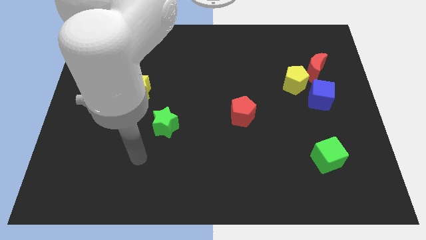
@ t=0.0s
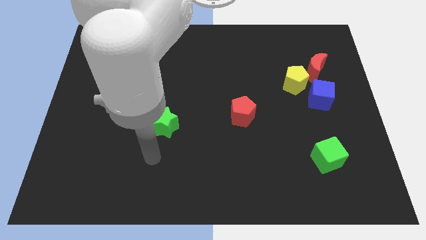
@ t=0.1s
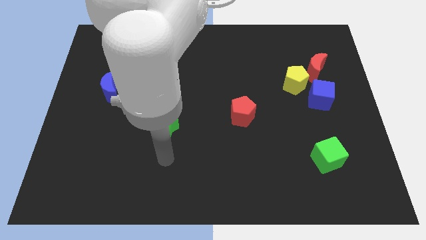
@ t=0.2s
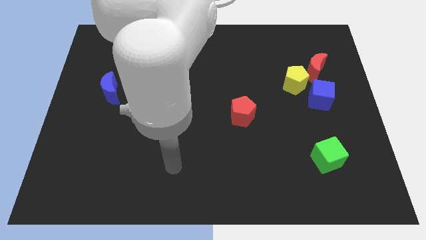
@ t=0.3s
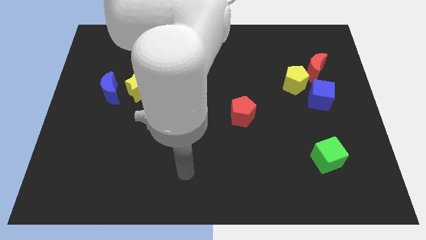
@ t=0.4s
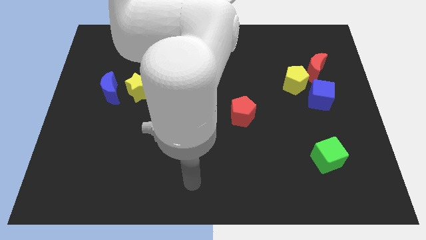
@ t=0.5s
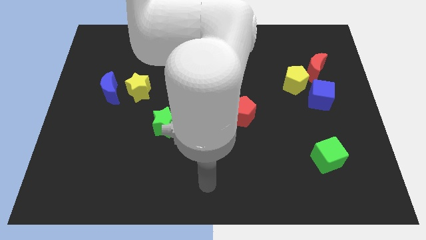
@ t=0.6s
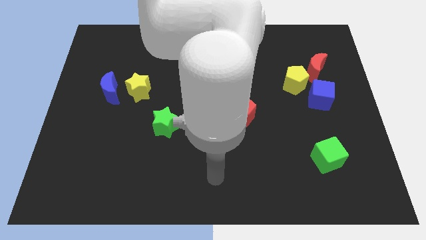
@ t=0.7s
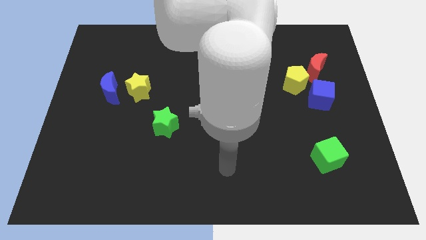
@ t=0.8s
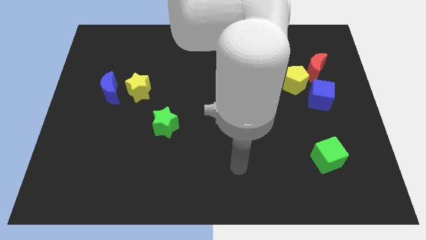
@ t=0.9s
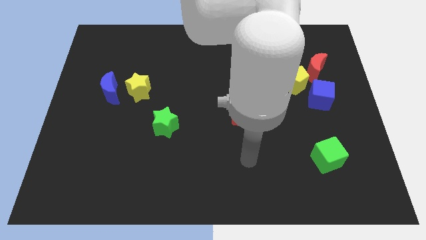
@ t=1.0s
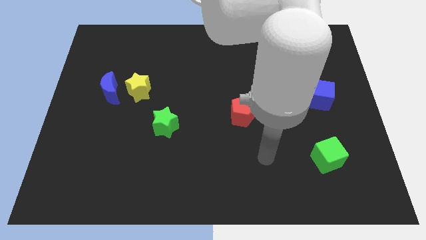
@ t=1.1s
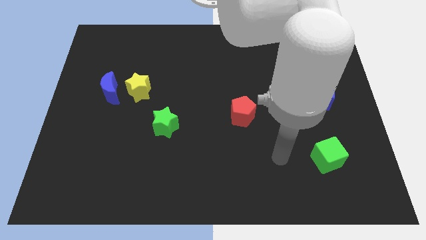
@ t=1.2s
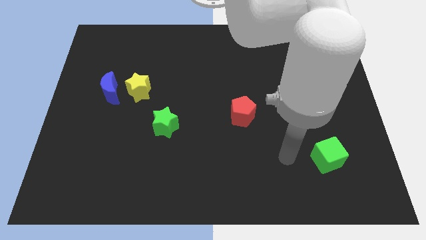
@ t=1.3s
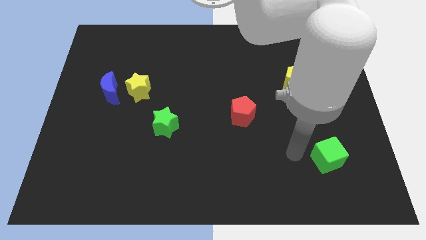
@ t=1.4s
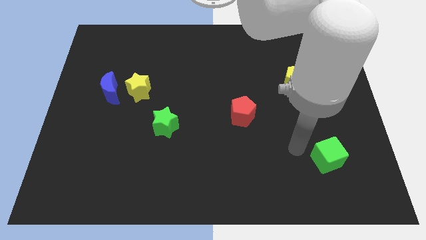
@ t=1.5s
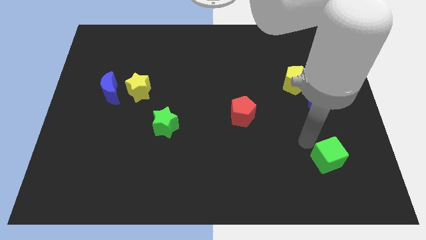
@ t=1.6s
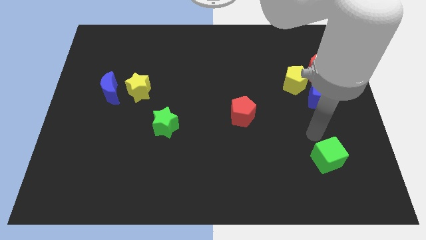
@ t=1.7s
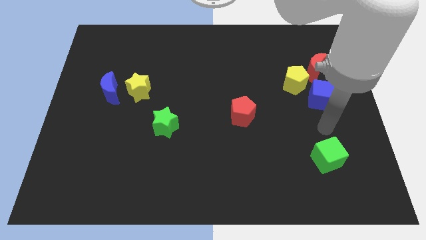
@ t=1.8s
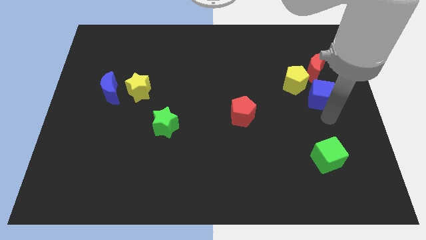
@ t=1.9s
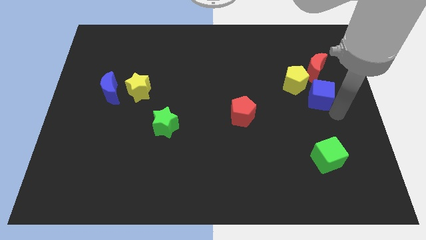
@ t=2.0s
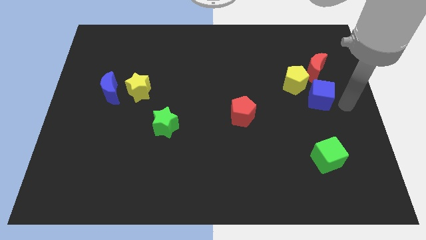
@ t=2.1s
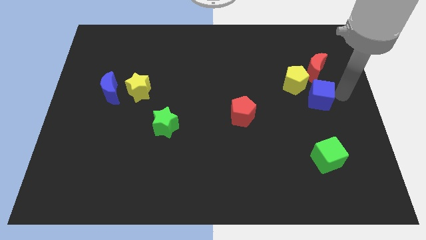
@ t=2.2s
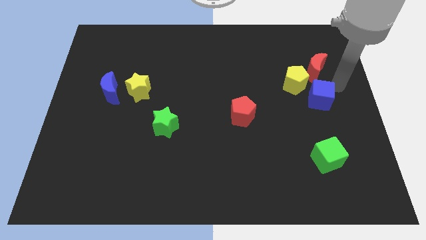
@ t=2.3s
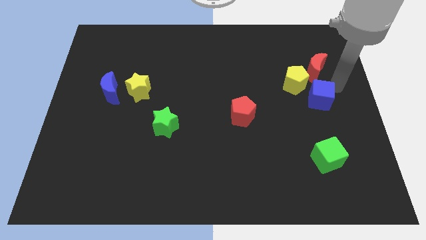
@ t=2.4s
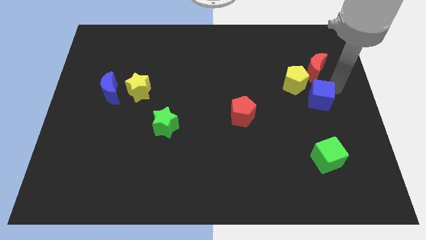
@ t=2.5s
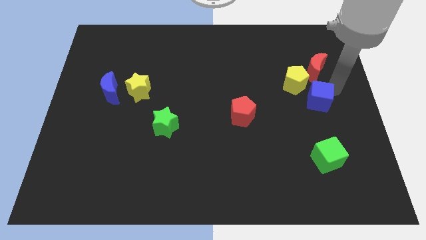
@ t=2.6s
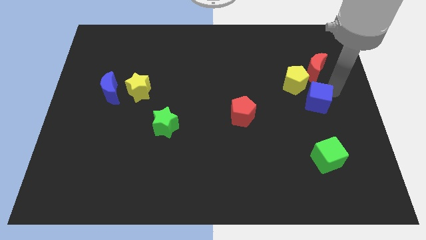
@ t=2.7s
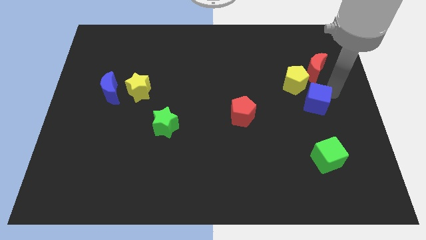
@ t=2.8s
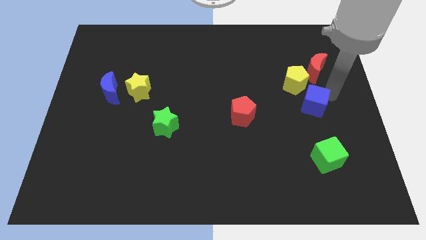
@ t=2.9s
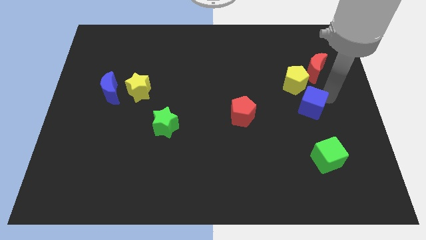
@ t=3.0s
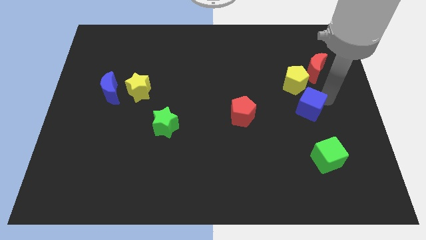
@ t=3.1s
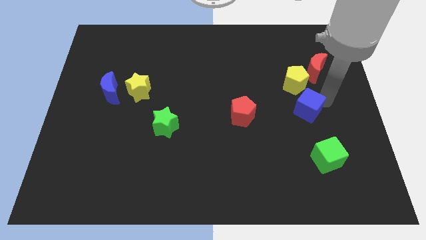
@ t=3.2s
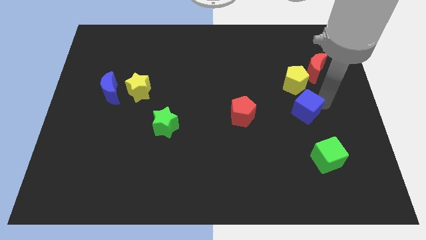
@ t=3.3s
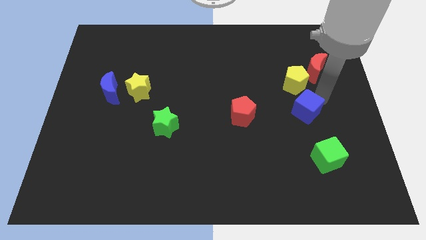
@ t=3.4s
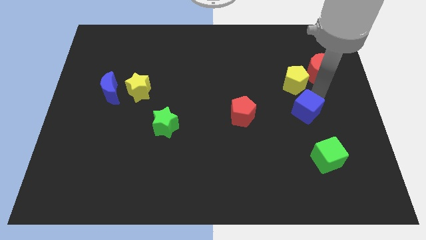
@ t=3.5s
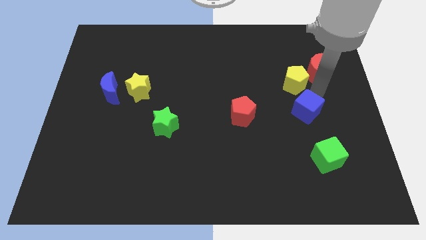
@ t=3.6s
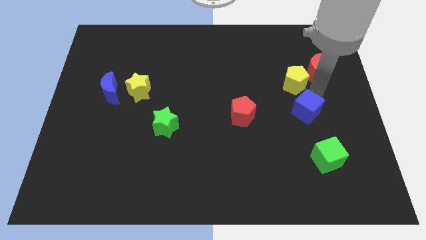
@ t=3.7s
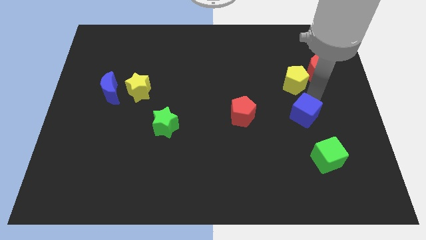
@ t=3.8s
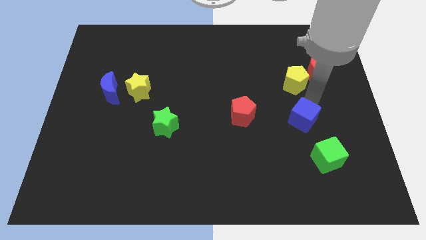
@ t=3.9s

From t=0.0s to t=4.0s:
push the blue cube diagonally downwards and left somewhat

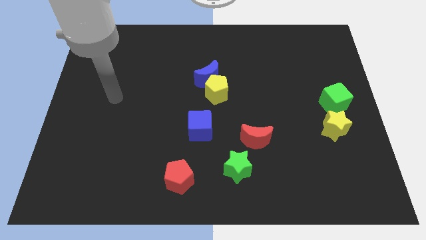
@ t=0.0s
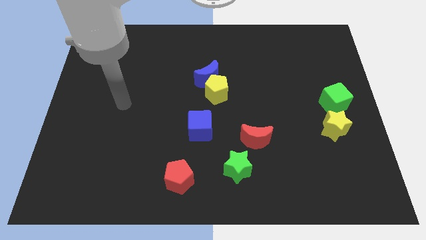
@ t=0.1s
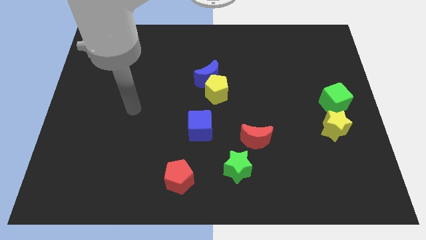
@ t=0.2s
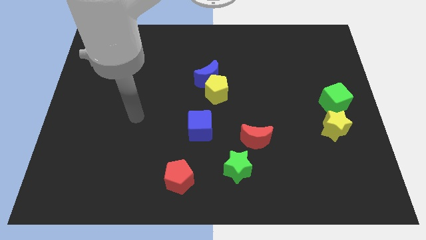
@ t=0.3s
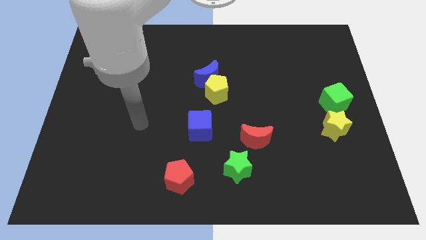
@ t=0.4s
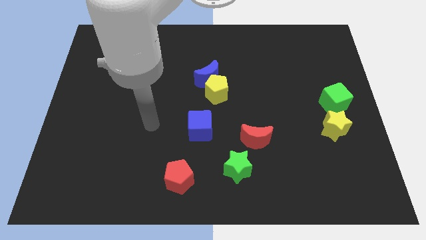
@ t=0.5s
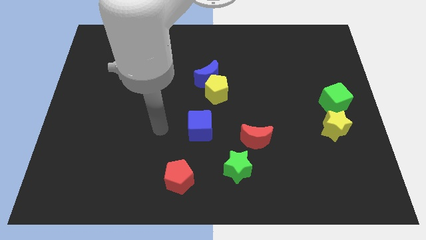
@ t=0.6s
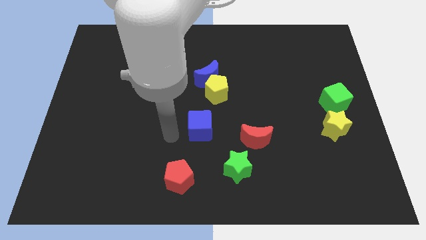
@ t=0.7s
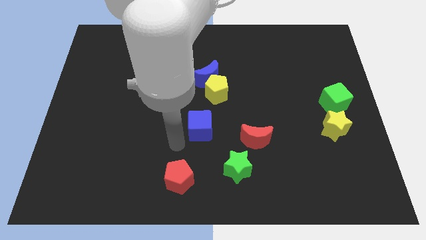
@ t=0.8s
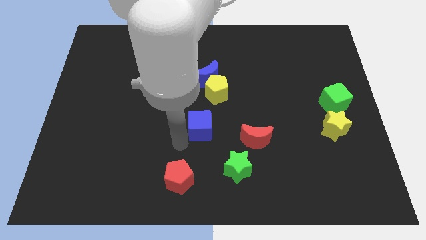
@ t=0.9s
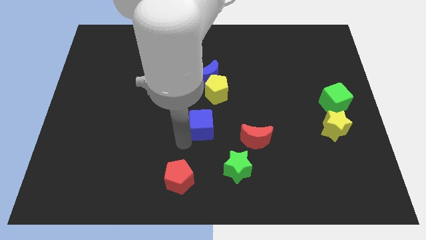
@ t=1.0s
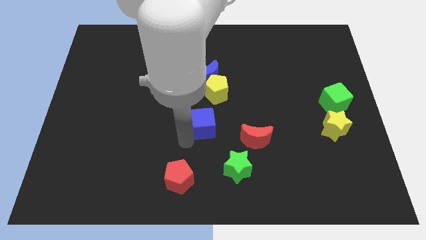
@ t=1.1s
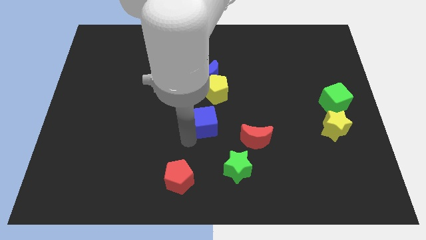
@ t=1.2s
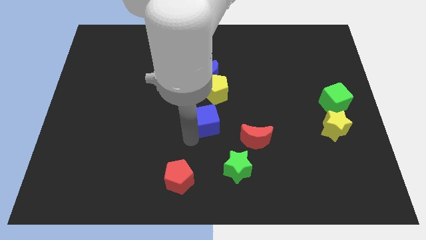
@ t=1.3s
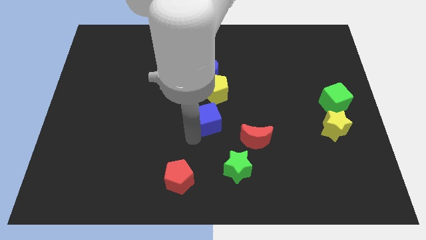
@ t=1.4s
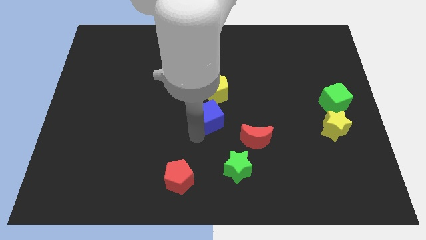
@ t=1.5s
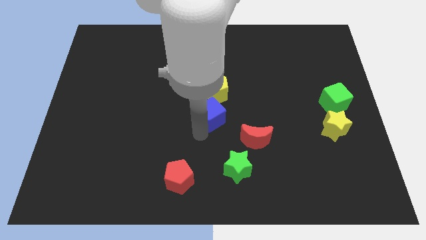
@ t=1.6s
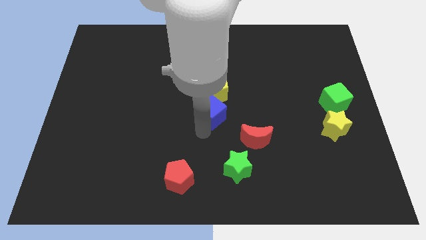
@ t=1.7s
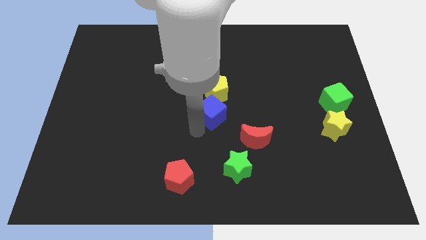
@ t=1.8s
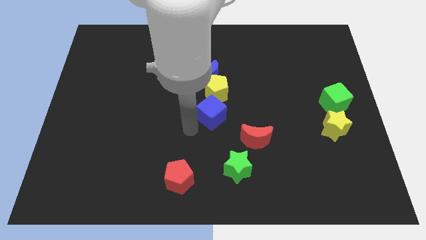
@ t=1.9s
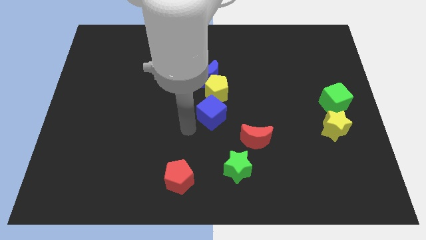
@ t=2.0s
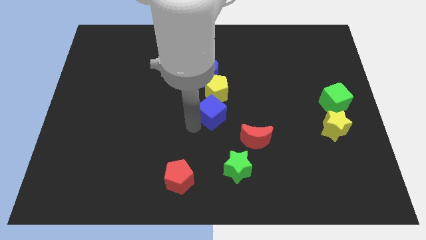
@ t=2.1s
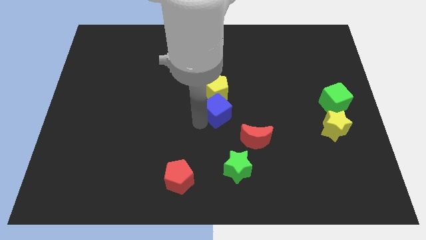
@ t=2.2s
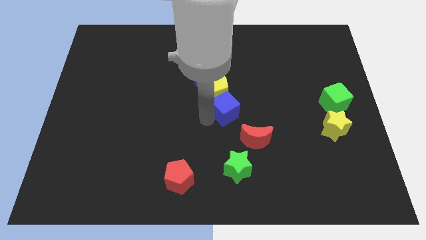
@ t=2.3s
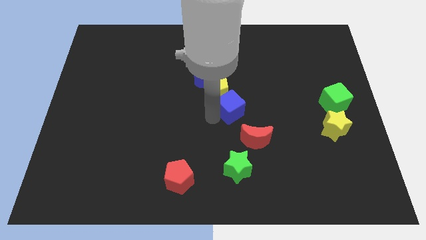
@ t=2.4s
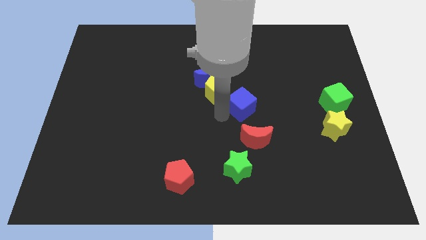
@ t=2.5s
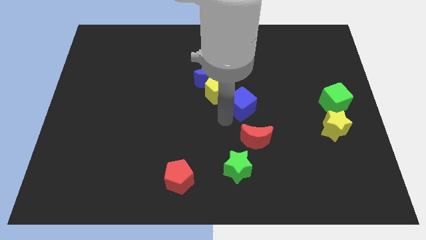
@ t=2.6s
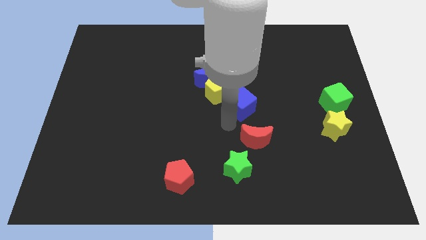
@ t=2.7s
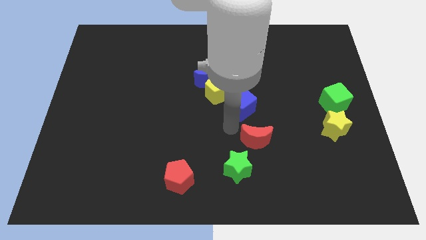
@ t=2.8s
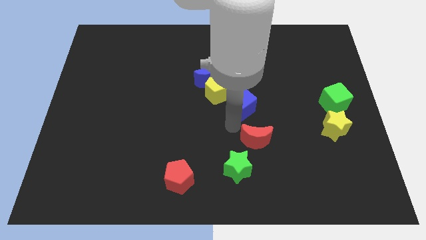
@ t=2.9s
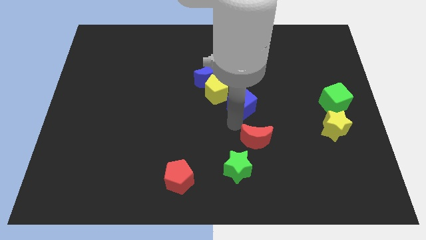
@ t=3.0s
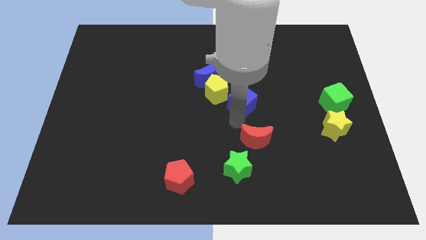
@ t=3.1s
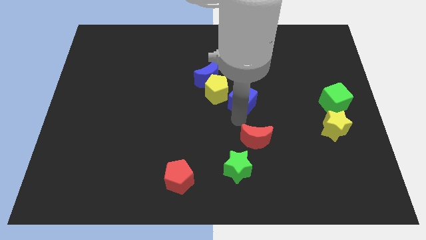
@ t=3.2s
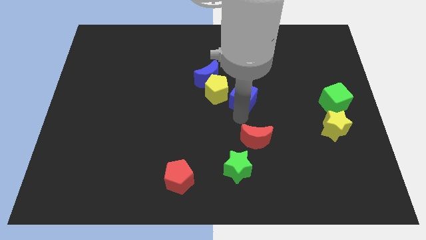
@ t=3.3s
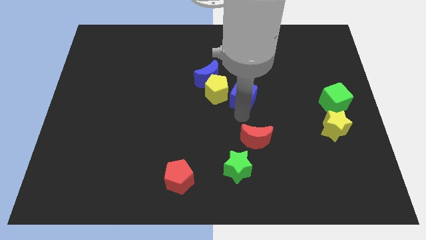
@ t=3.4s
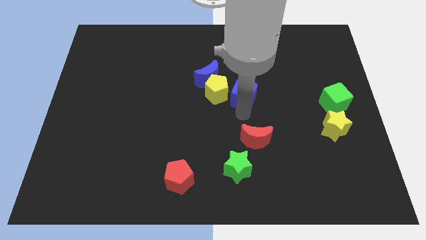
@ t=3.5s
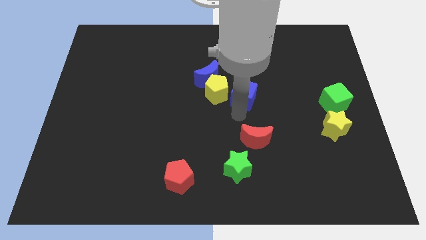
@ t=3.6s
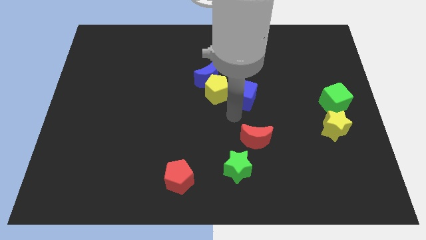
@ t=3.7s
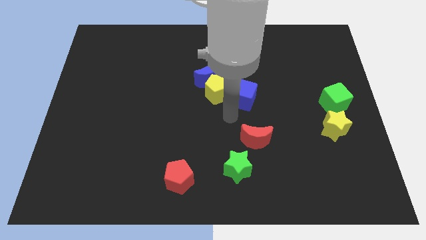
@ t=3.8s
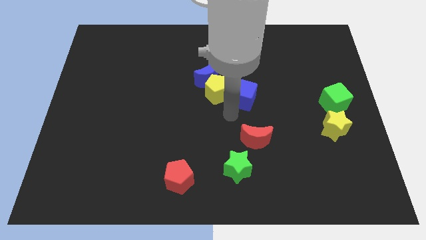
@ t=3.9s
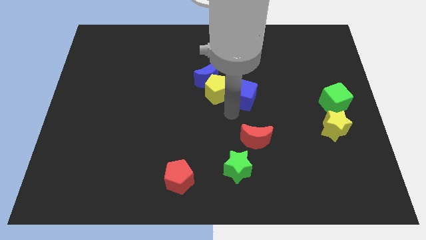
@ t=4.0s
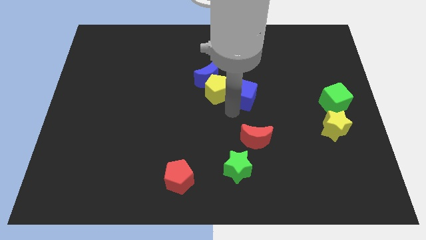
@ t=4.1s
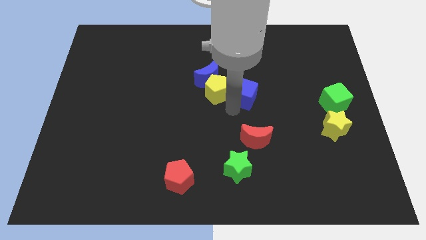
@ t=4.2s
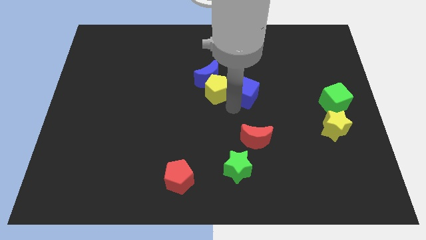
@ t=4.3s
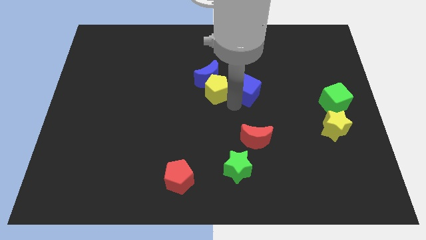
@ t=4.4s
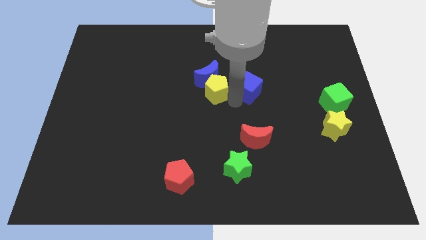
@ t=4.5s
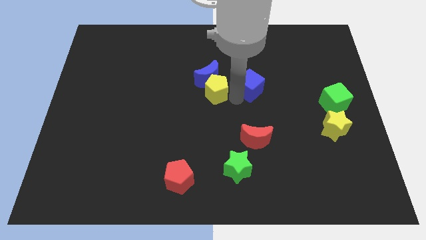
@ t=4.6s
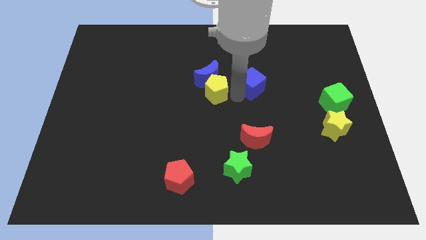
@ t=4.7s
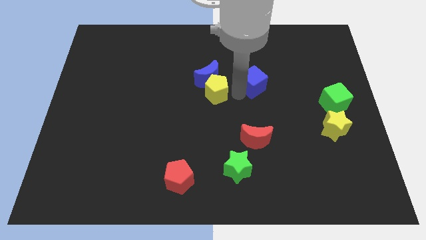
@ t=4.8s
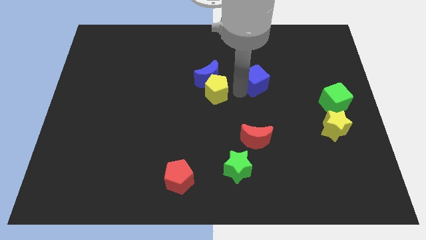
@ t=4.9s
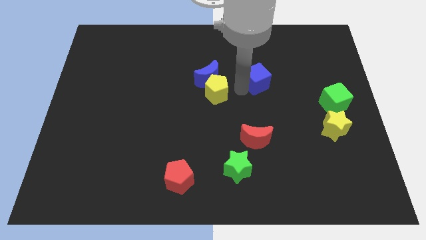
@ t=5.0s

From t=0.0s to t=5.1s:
push the blue cube upwards and then to the right
